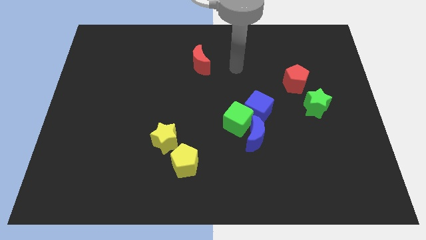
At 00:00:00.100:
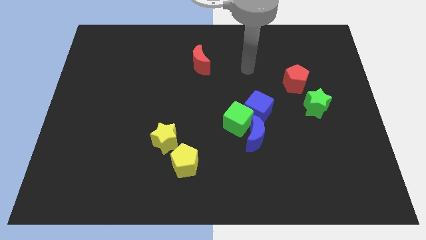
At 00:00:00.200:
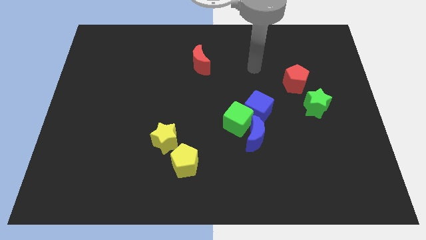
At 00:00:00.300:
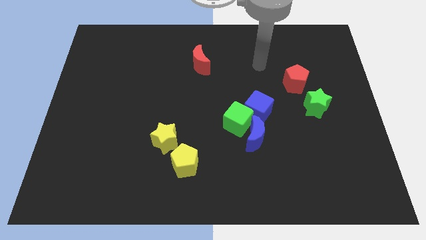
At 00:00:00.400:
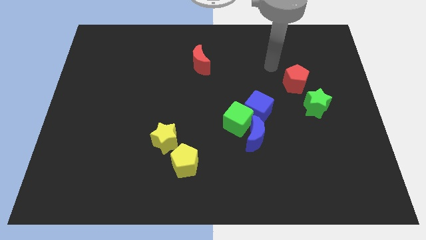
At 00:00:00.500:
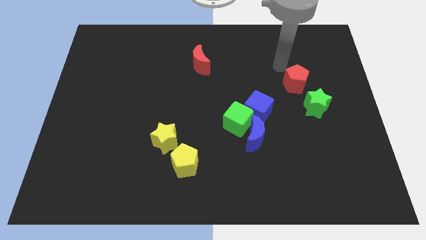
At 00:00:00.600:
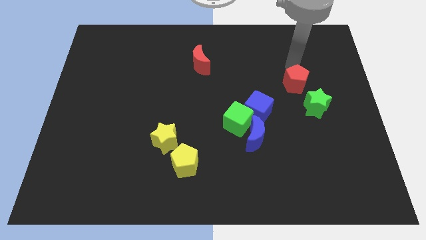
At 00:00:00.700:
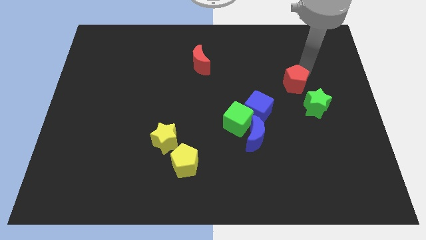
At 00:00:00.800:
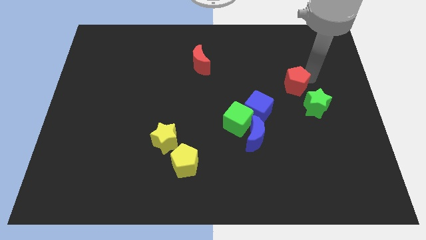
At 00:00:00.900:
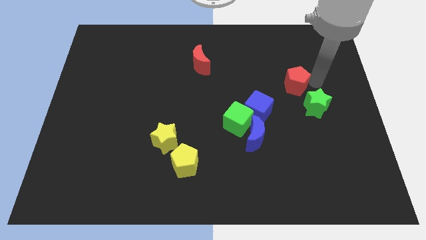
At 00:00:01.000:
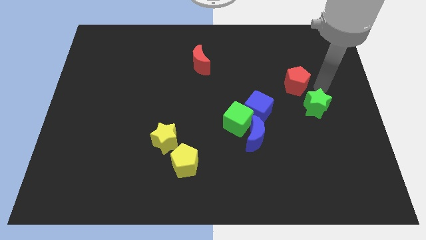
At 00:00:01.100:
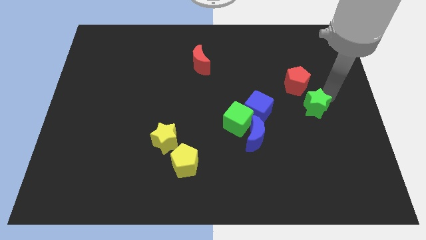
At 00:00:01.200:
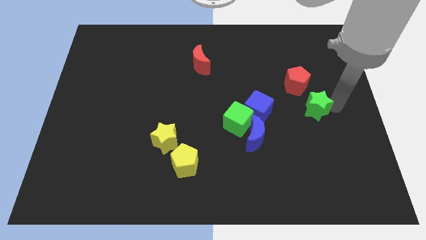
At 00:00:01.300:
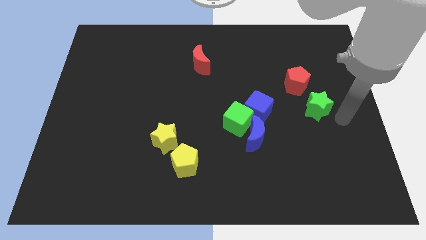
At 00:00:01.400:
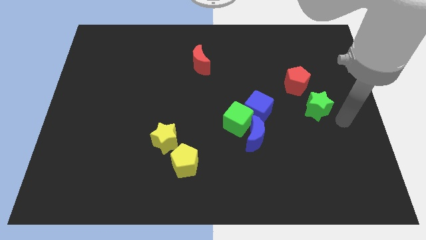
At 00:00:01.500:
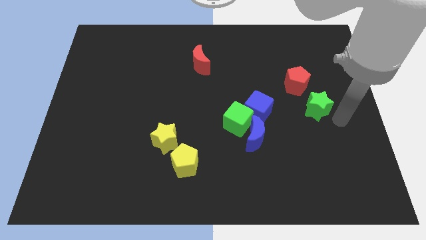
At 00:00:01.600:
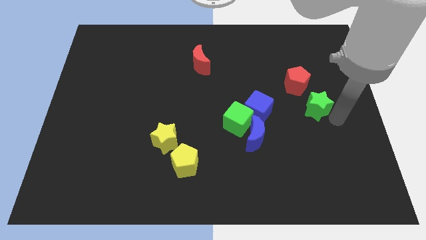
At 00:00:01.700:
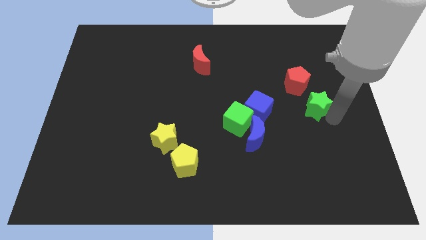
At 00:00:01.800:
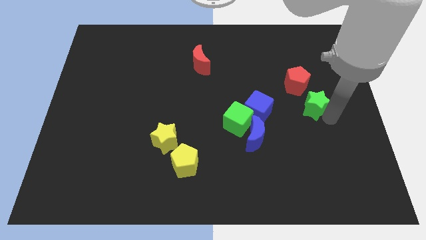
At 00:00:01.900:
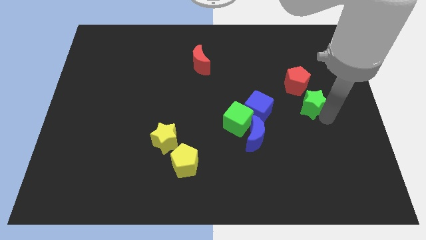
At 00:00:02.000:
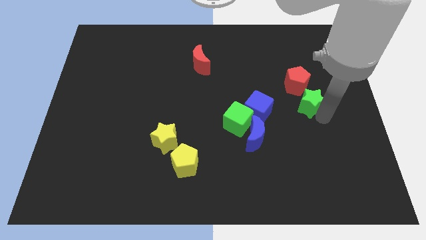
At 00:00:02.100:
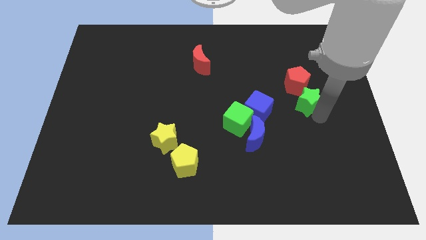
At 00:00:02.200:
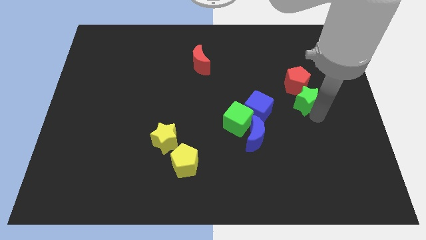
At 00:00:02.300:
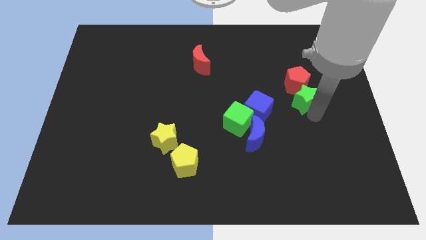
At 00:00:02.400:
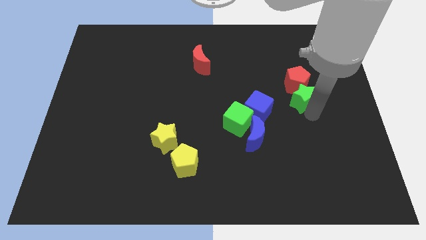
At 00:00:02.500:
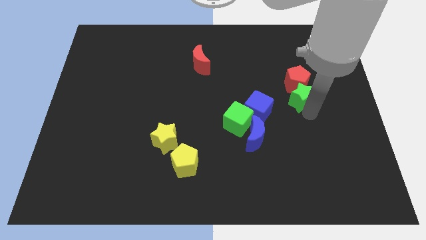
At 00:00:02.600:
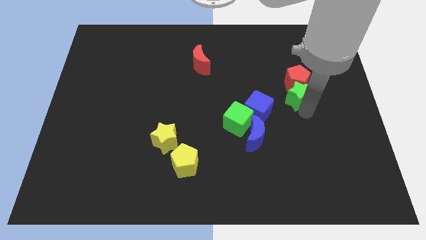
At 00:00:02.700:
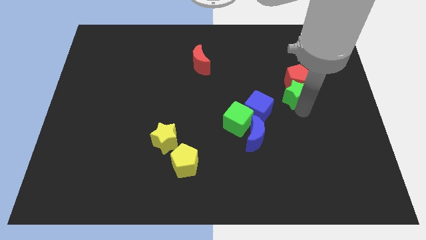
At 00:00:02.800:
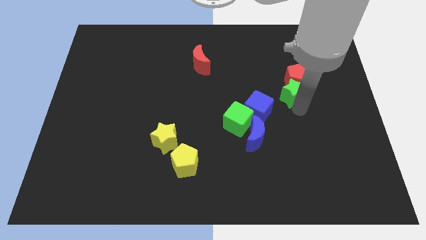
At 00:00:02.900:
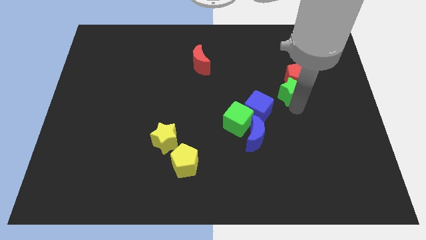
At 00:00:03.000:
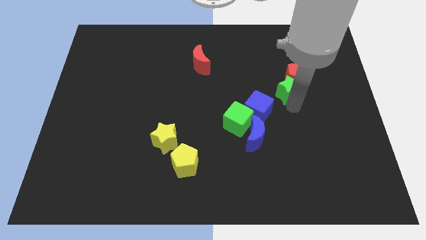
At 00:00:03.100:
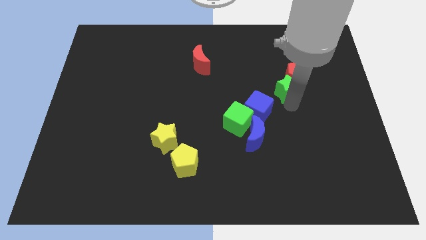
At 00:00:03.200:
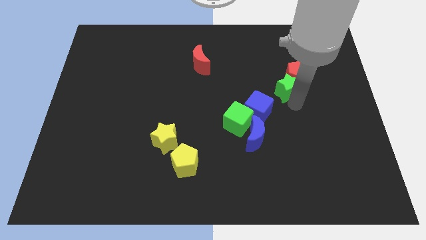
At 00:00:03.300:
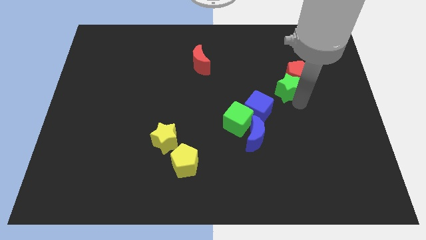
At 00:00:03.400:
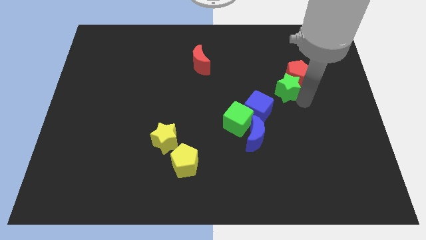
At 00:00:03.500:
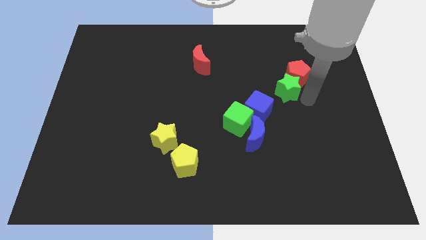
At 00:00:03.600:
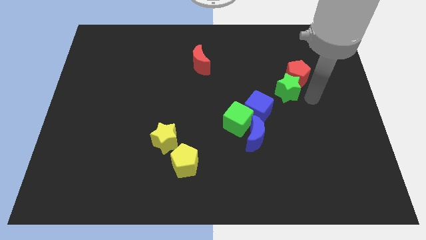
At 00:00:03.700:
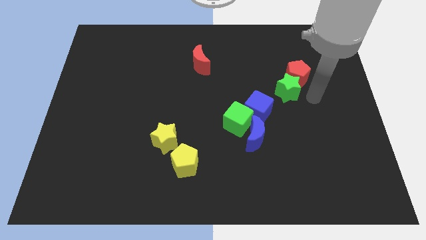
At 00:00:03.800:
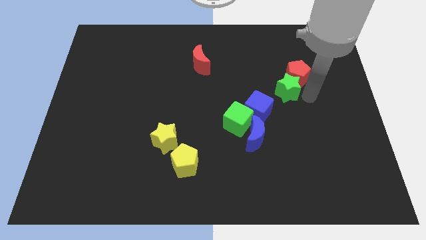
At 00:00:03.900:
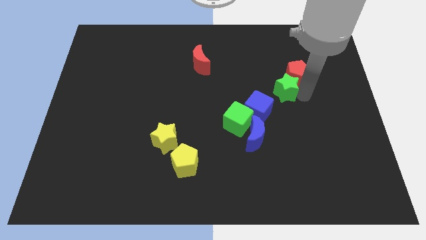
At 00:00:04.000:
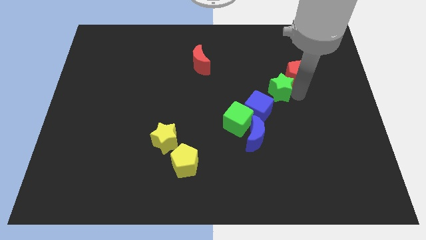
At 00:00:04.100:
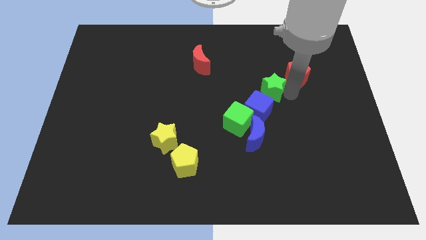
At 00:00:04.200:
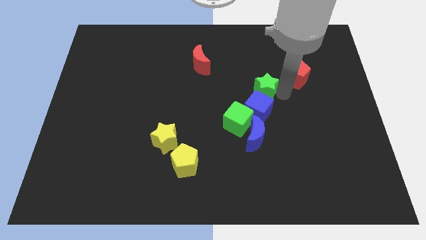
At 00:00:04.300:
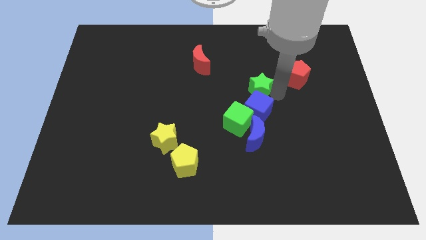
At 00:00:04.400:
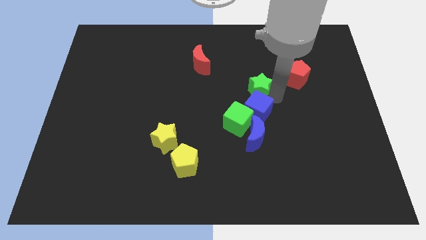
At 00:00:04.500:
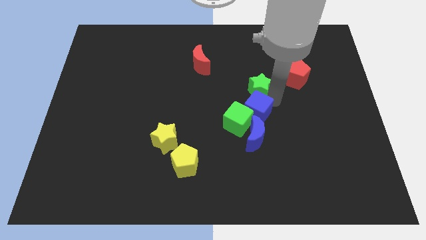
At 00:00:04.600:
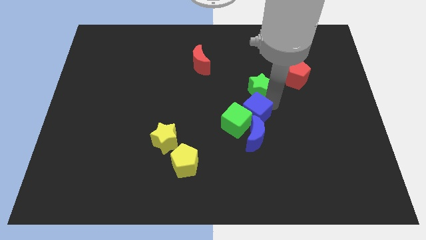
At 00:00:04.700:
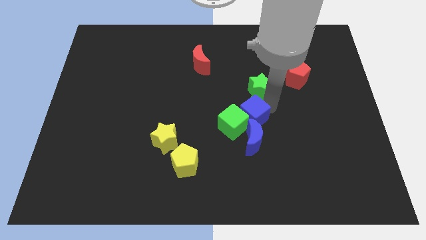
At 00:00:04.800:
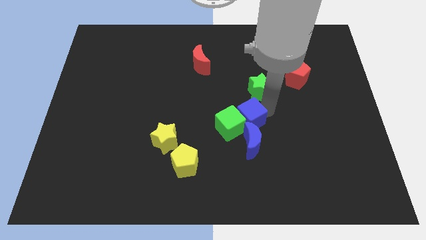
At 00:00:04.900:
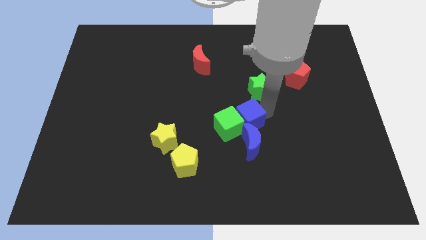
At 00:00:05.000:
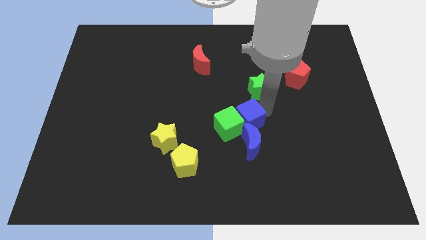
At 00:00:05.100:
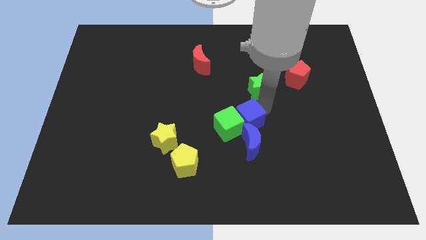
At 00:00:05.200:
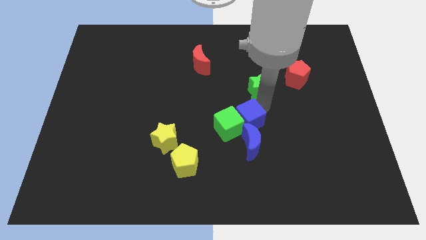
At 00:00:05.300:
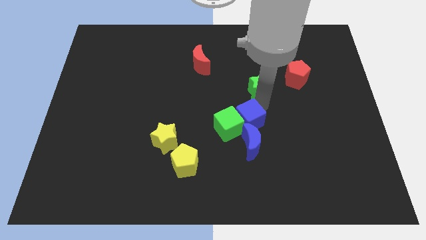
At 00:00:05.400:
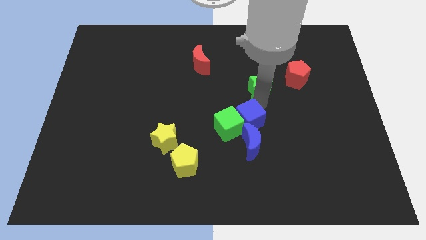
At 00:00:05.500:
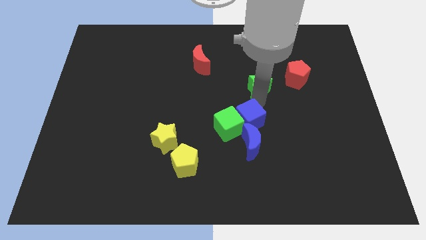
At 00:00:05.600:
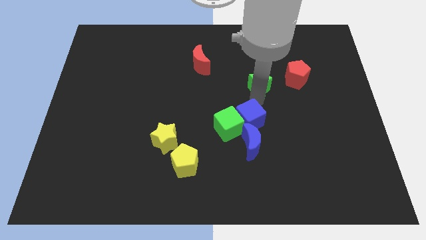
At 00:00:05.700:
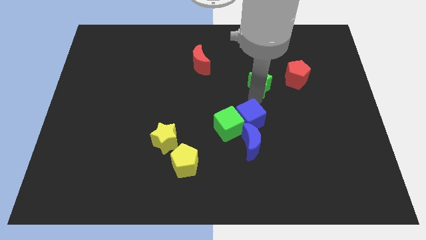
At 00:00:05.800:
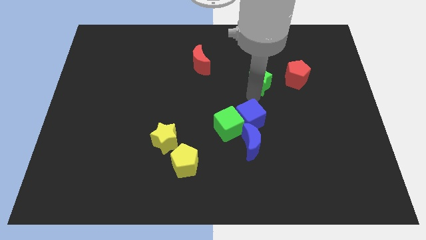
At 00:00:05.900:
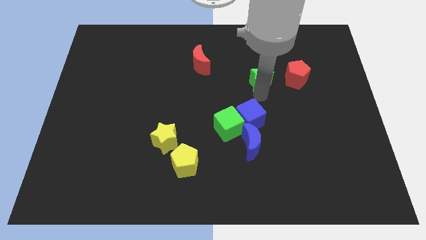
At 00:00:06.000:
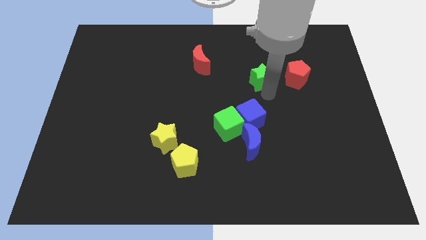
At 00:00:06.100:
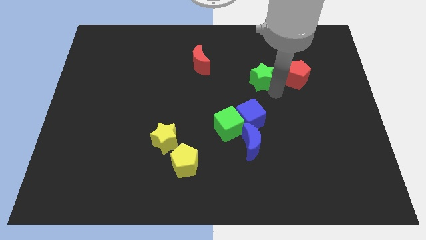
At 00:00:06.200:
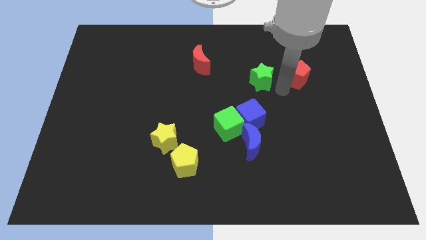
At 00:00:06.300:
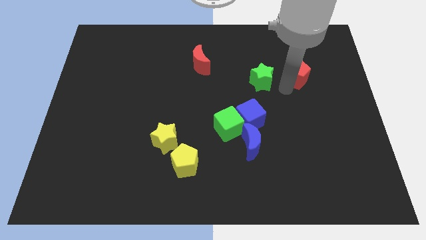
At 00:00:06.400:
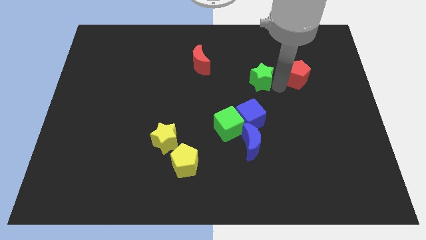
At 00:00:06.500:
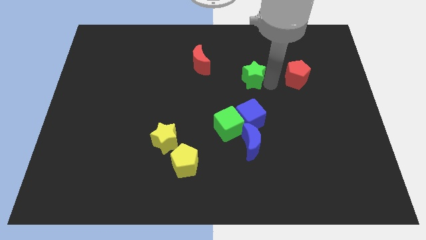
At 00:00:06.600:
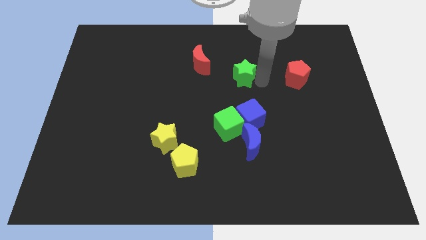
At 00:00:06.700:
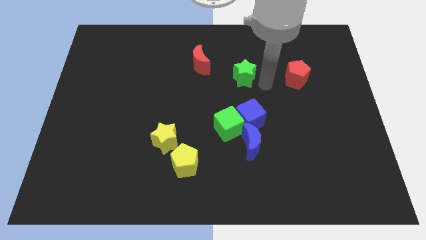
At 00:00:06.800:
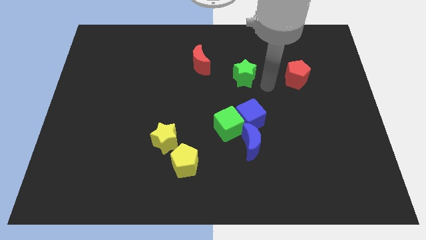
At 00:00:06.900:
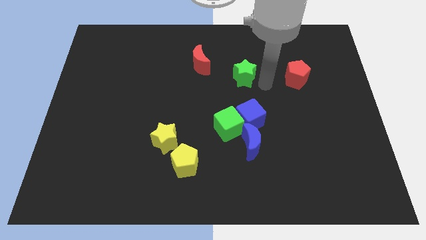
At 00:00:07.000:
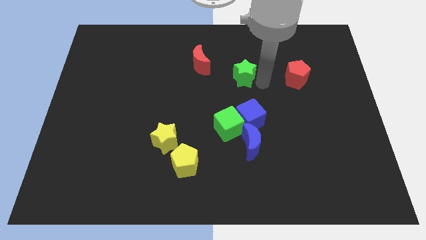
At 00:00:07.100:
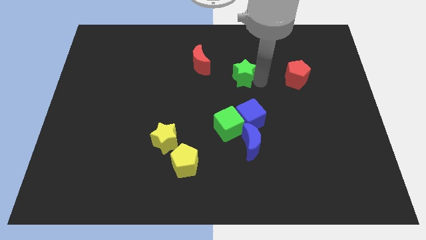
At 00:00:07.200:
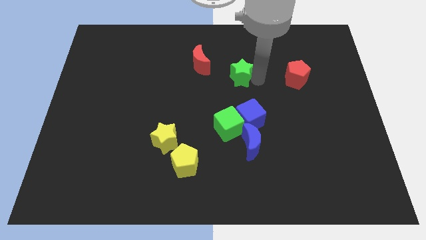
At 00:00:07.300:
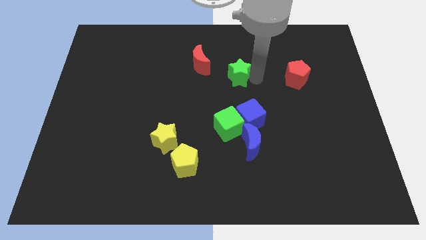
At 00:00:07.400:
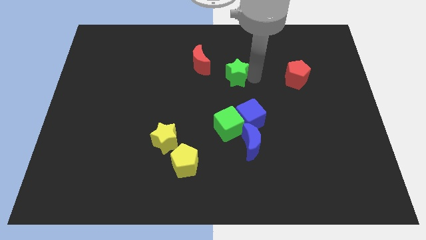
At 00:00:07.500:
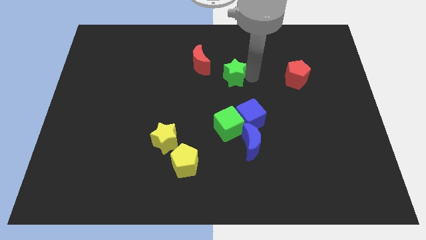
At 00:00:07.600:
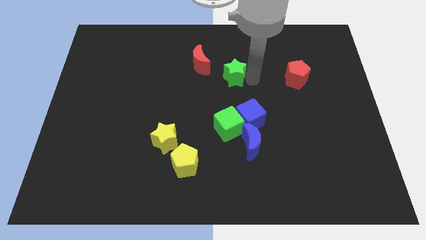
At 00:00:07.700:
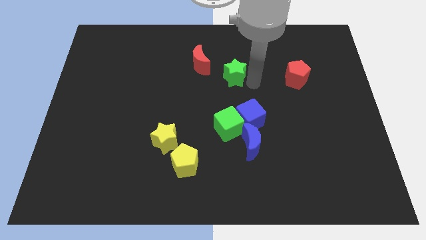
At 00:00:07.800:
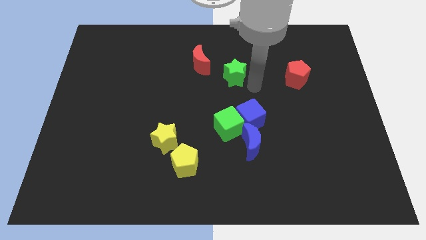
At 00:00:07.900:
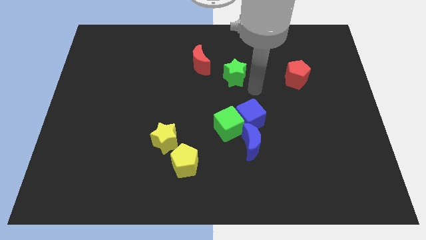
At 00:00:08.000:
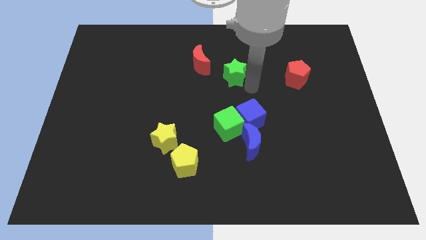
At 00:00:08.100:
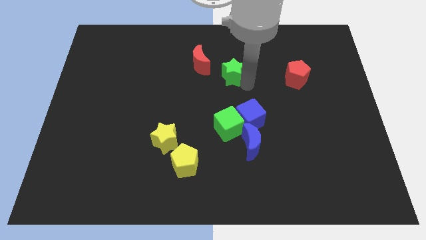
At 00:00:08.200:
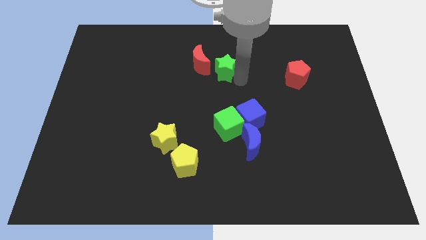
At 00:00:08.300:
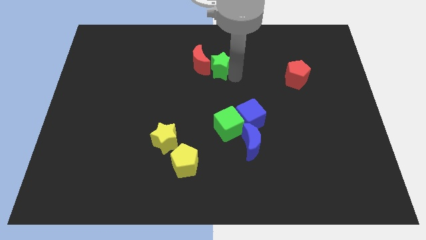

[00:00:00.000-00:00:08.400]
move the green star close to the red moon
